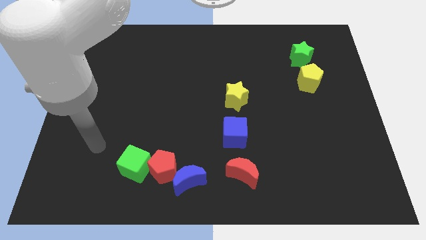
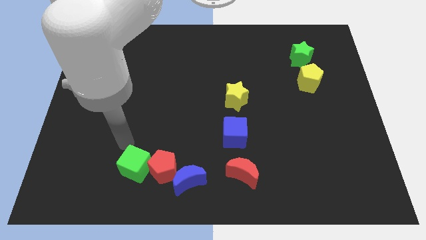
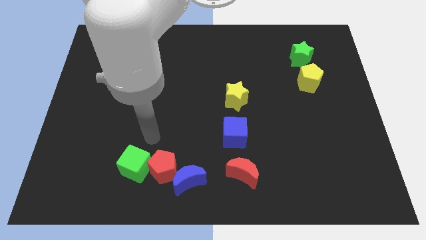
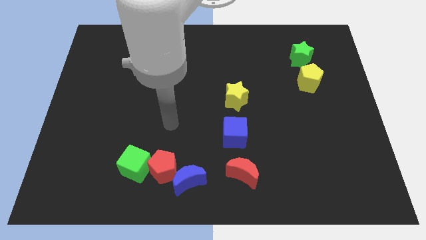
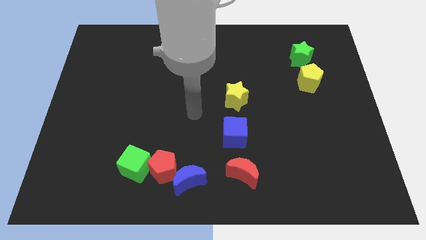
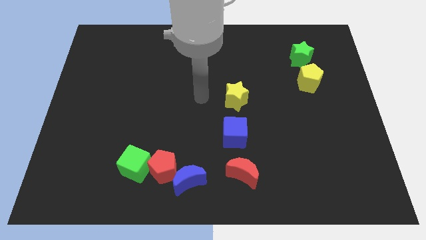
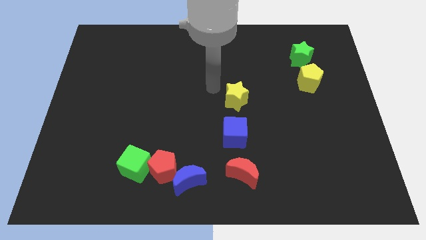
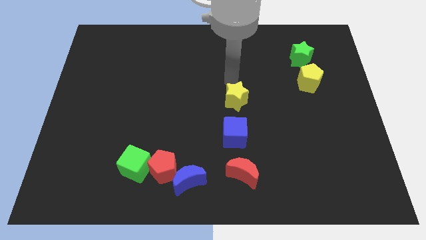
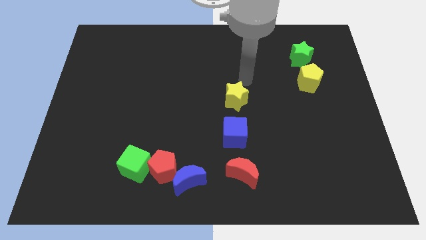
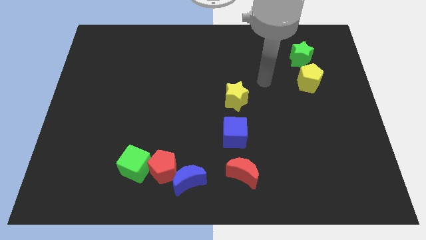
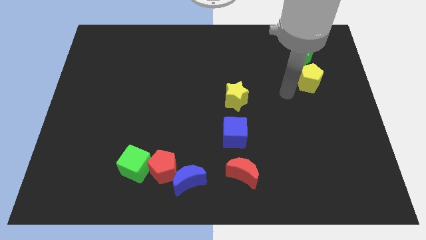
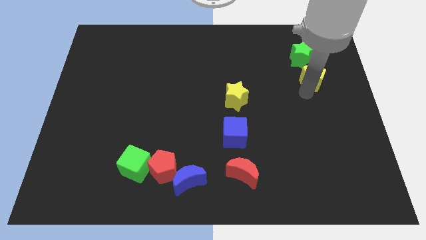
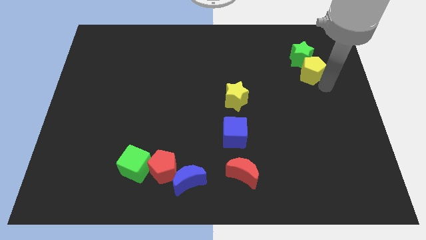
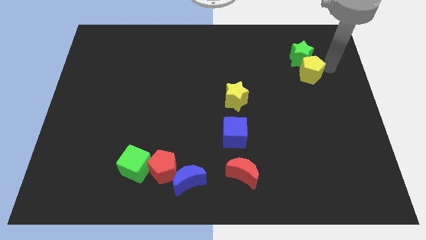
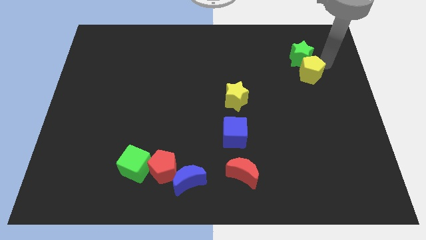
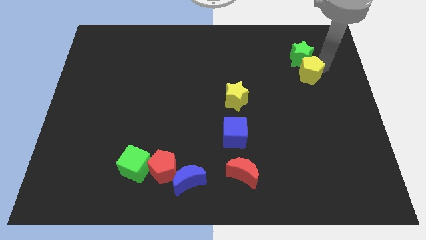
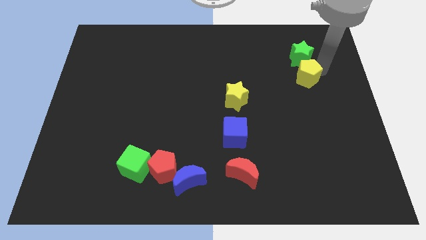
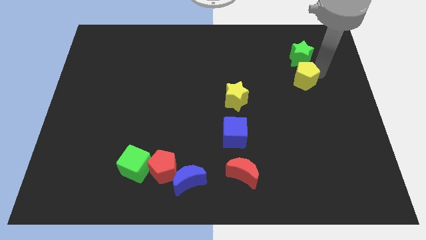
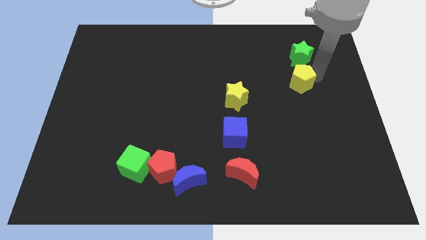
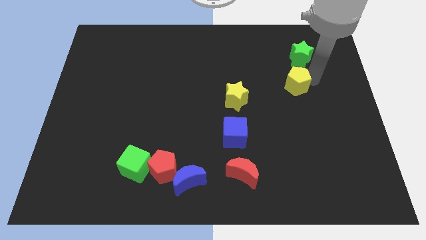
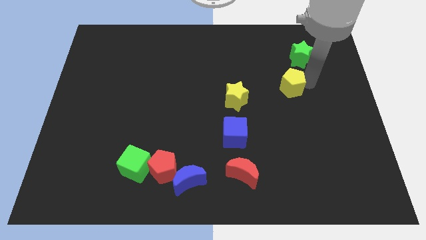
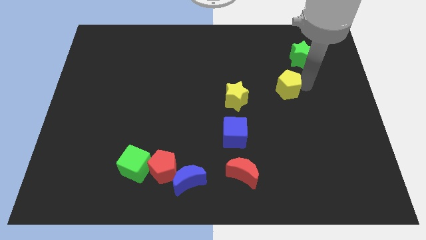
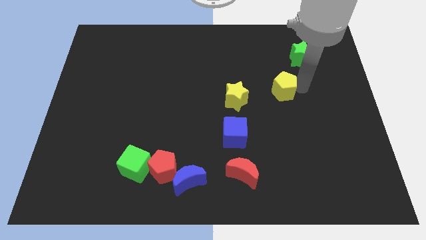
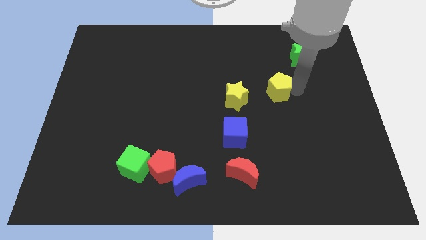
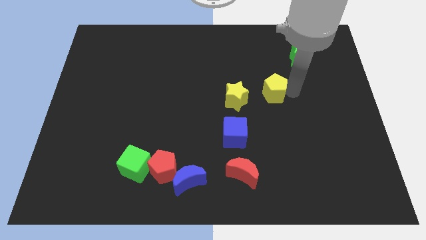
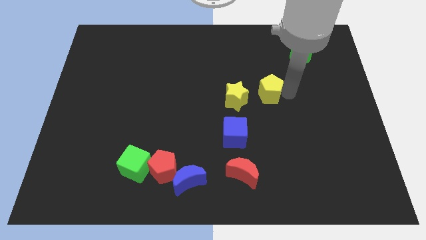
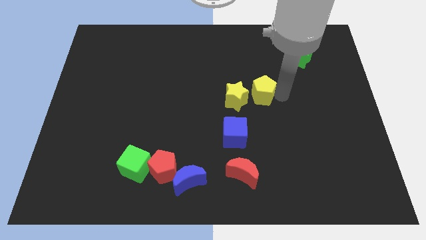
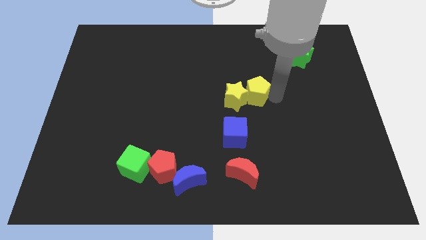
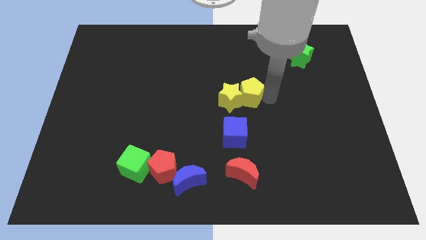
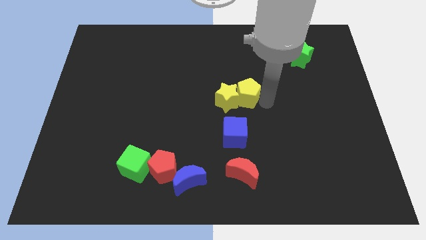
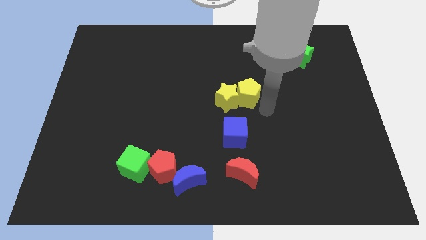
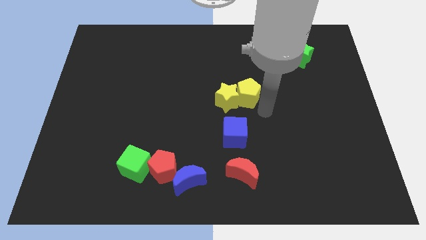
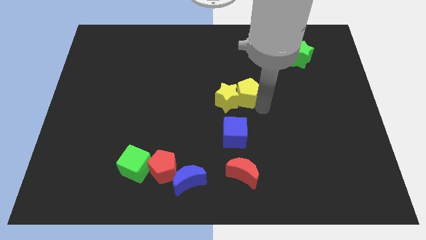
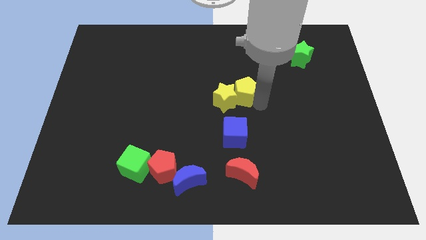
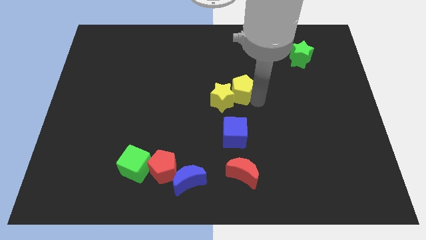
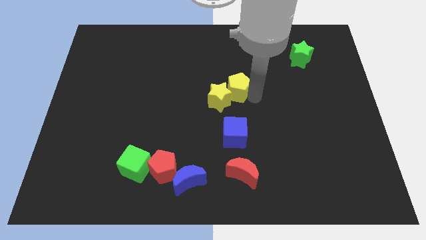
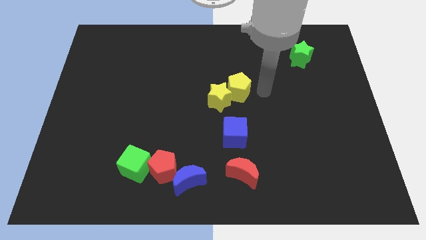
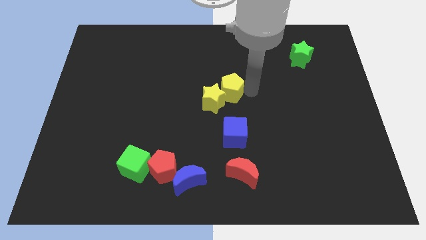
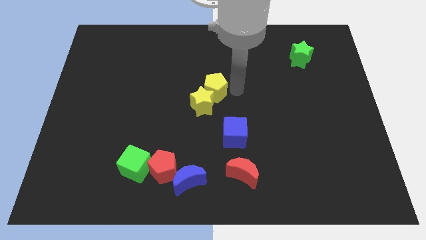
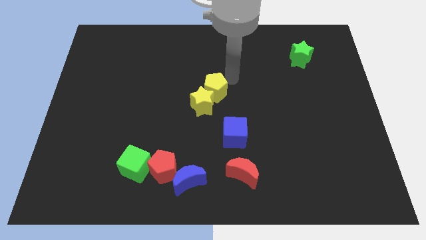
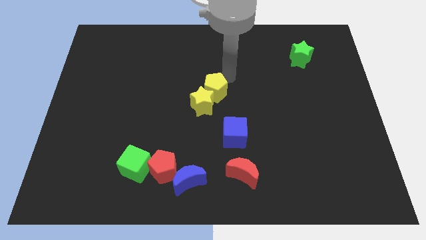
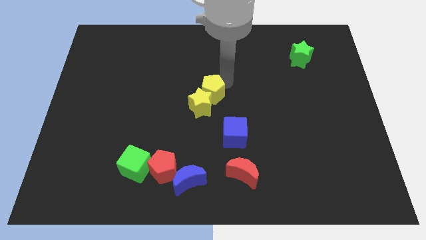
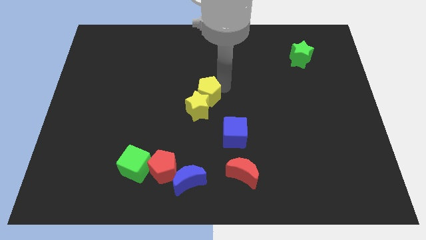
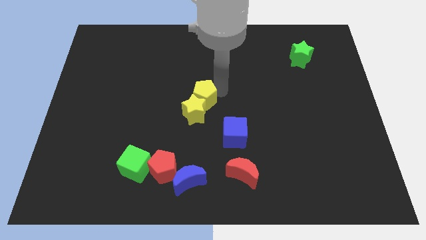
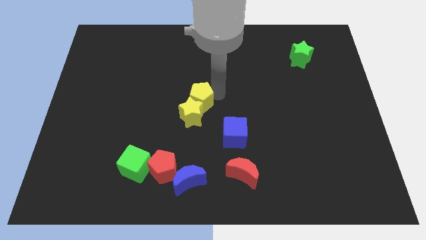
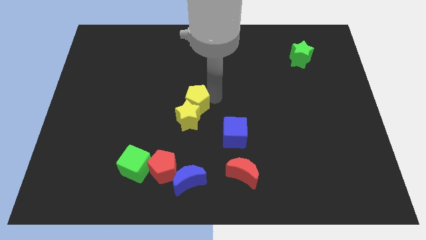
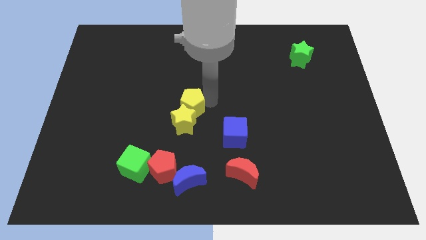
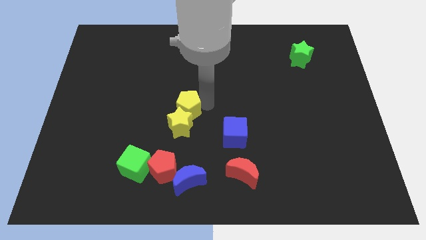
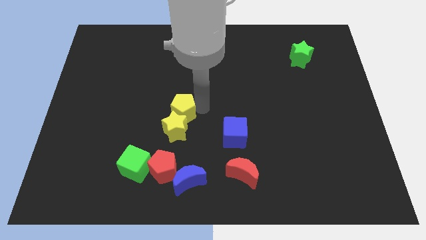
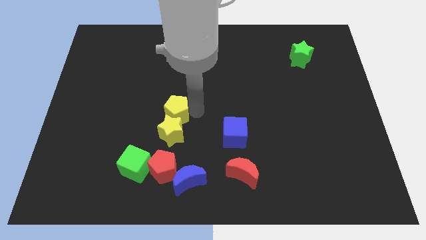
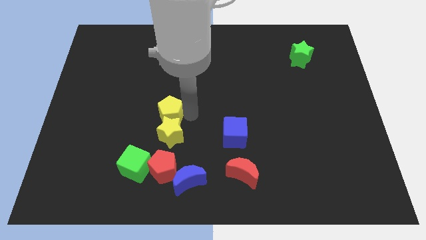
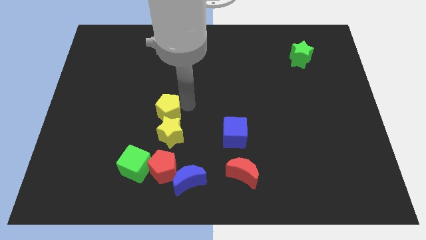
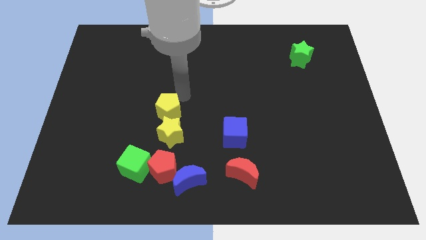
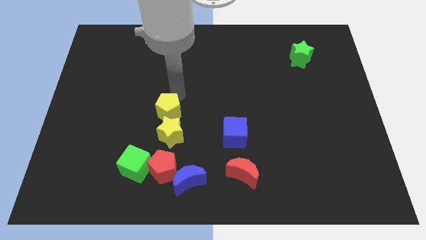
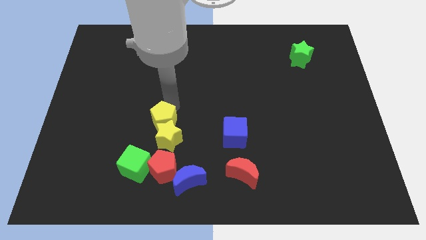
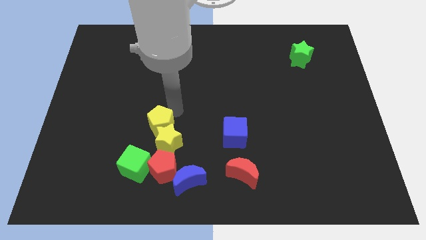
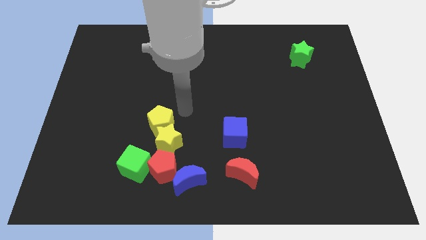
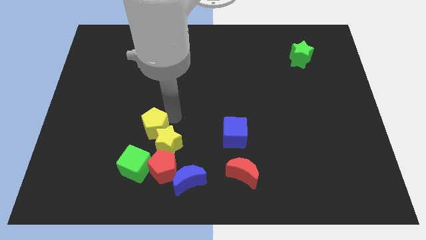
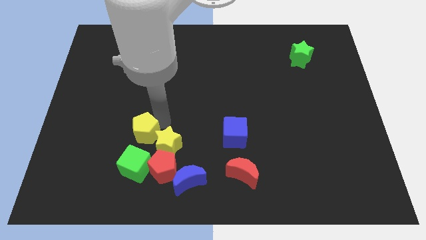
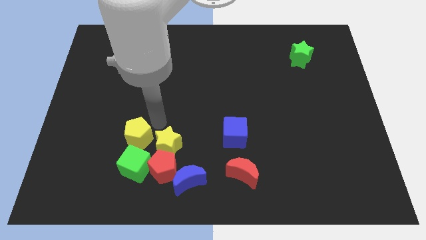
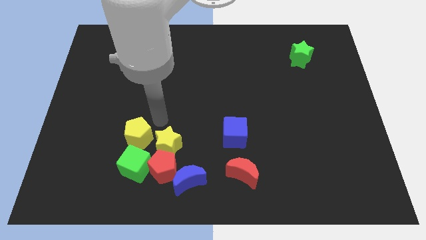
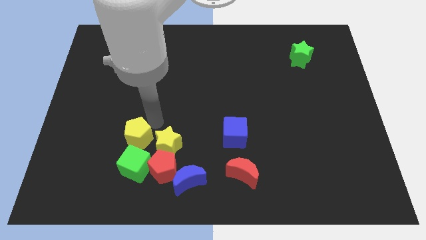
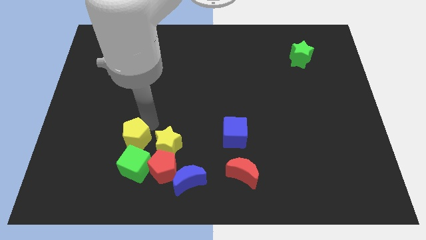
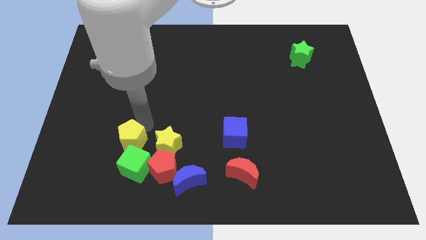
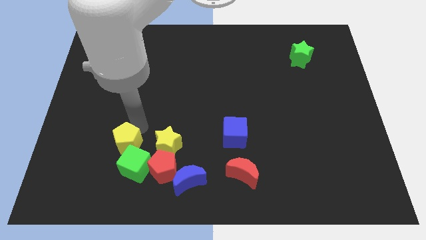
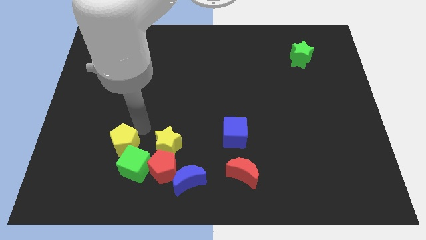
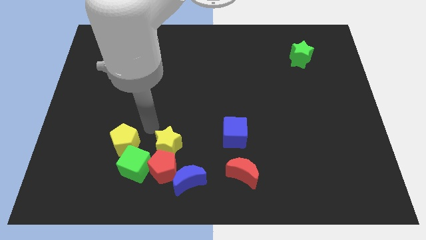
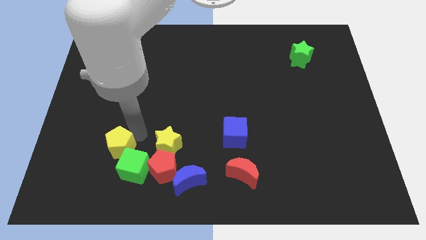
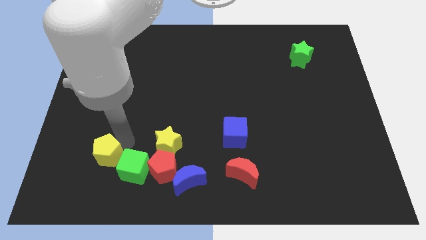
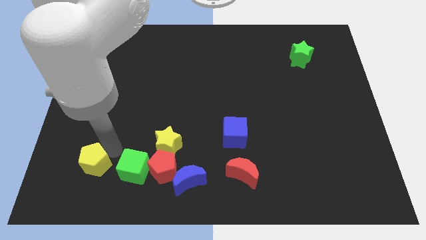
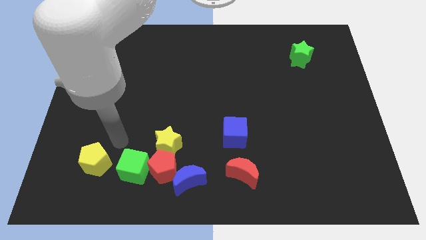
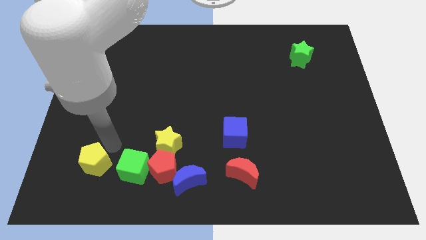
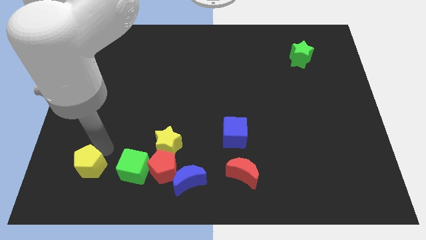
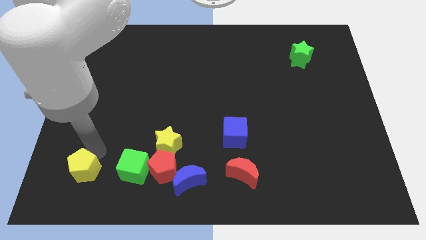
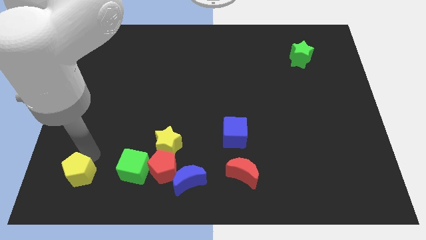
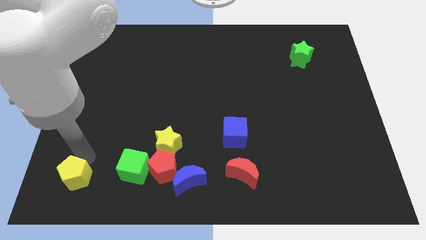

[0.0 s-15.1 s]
push the yellow pentagon to the bottom left corner
